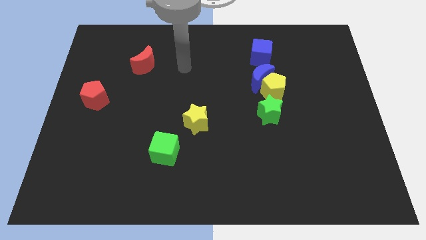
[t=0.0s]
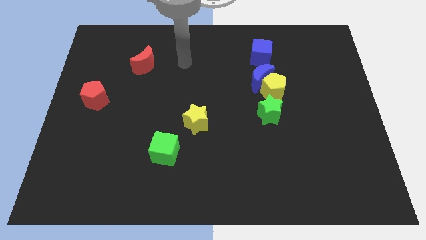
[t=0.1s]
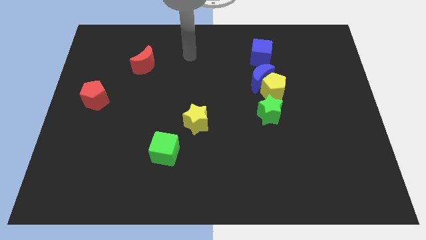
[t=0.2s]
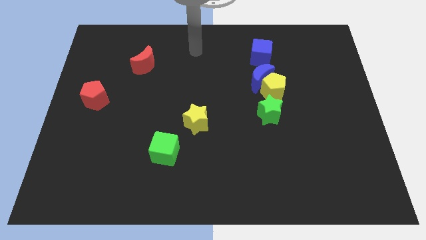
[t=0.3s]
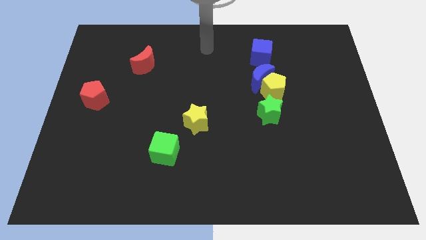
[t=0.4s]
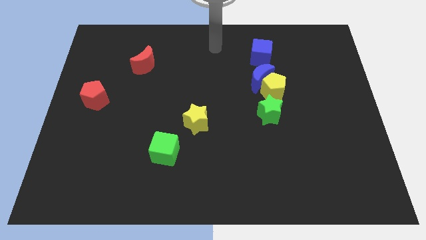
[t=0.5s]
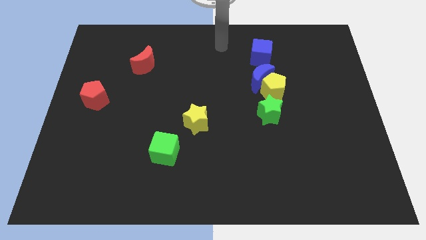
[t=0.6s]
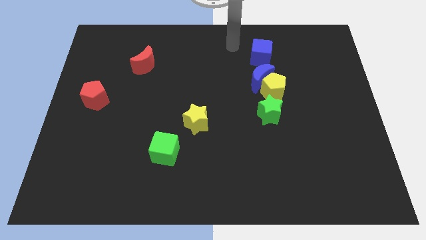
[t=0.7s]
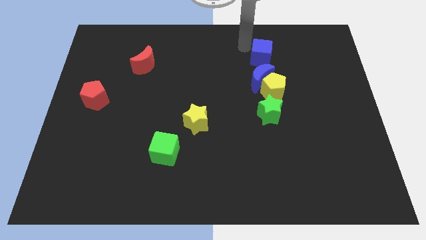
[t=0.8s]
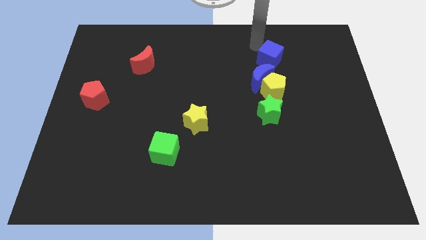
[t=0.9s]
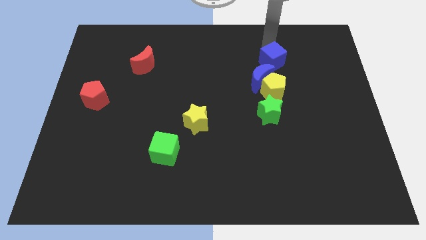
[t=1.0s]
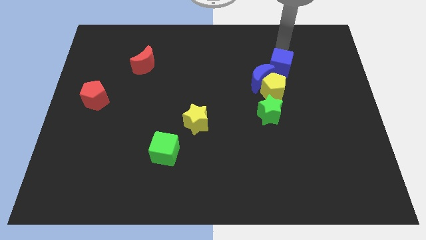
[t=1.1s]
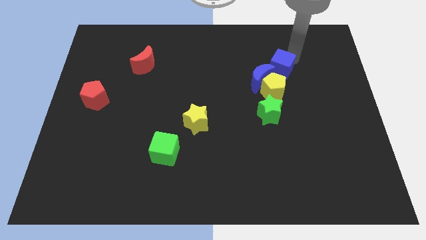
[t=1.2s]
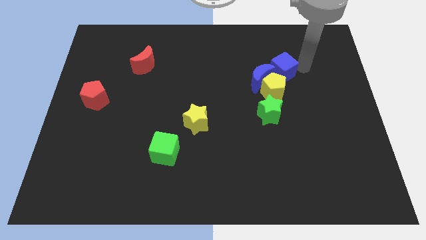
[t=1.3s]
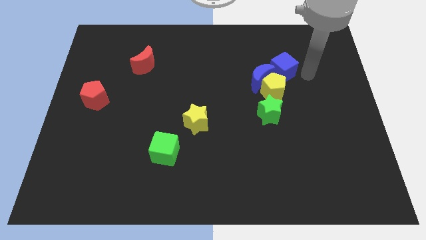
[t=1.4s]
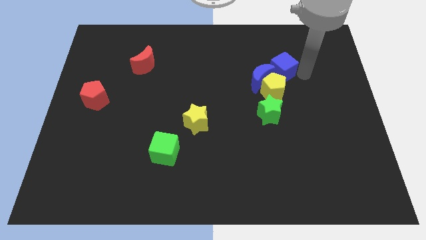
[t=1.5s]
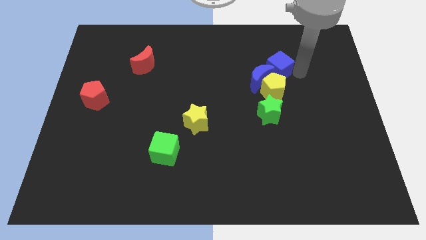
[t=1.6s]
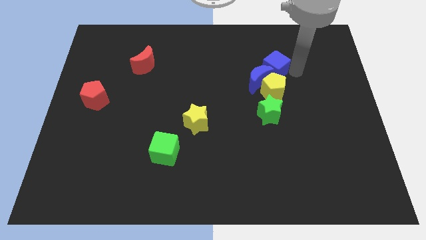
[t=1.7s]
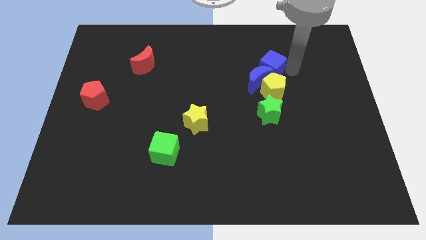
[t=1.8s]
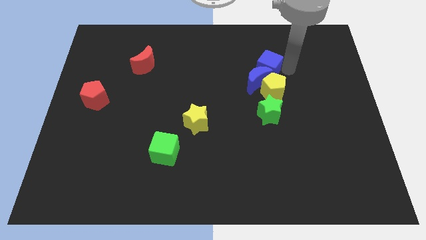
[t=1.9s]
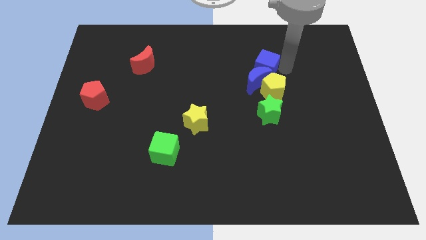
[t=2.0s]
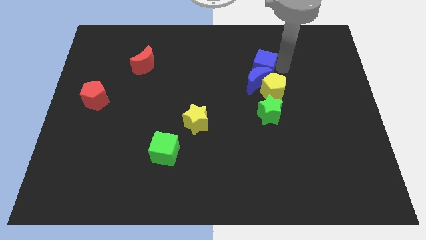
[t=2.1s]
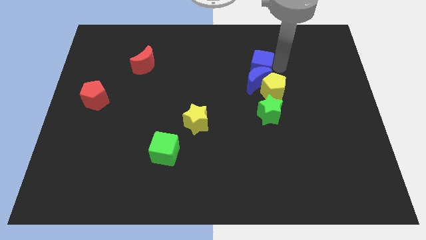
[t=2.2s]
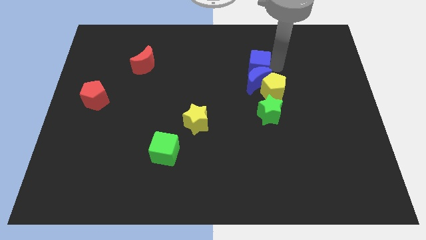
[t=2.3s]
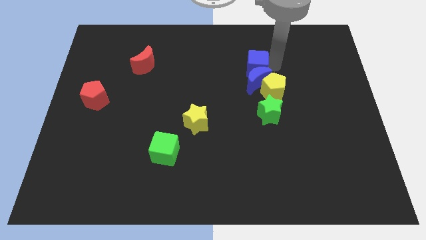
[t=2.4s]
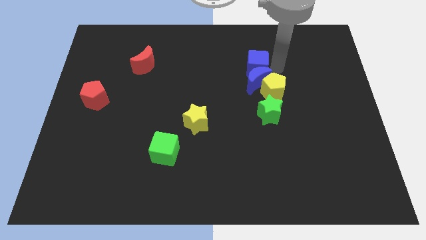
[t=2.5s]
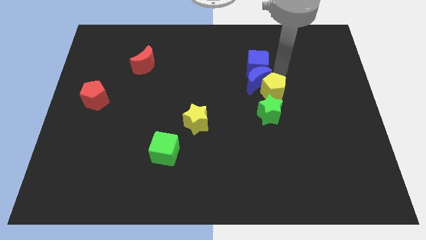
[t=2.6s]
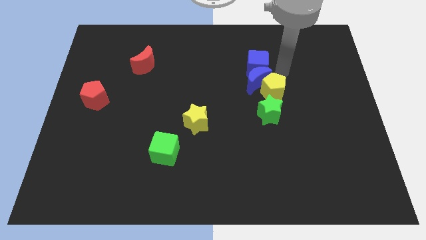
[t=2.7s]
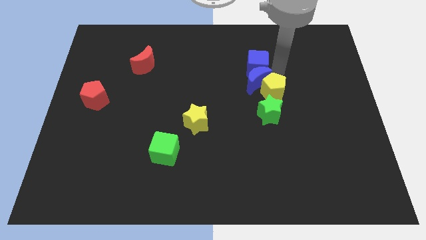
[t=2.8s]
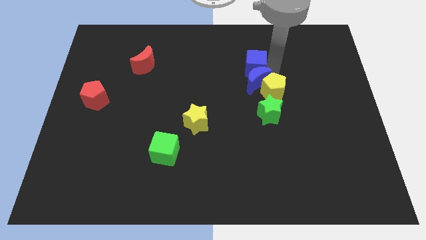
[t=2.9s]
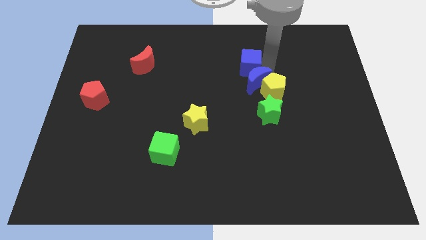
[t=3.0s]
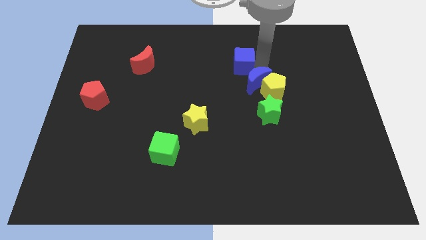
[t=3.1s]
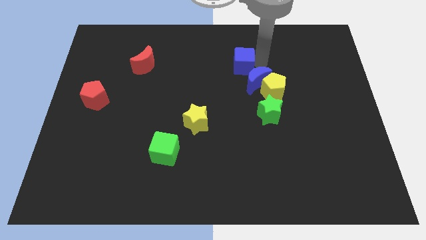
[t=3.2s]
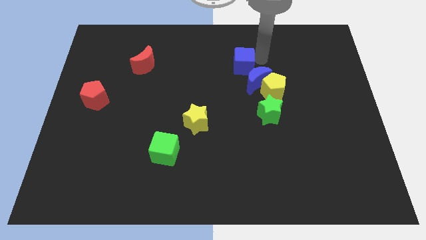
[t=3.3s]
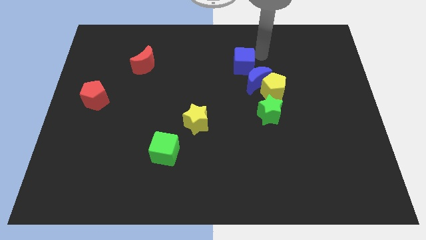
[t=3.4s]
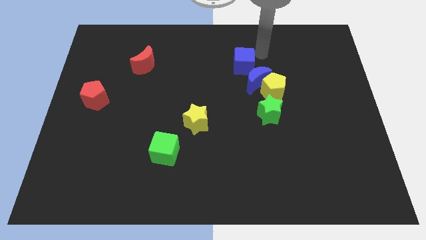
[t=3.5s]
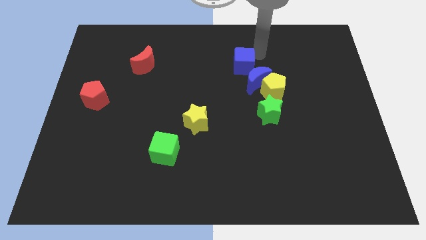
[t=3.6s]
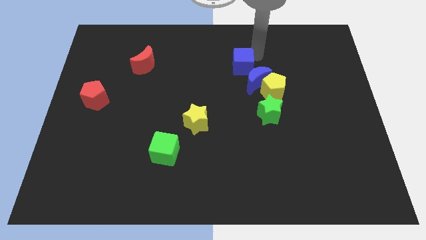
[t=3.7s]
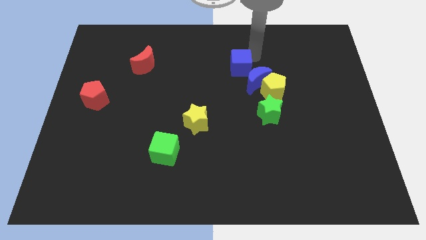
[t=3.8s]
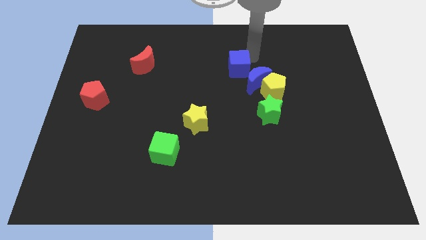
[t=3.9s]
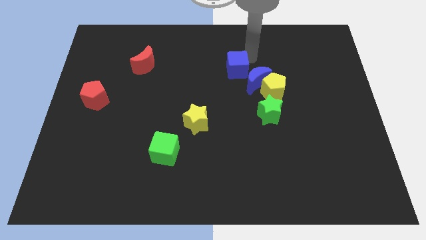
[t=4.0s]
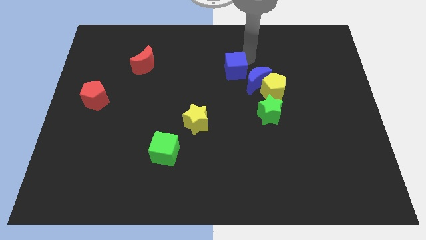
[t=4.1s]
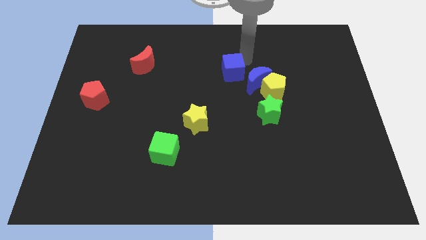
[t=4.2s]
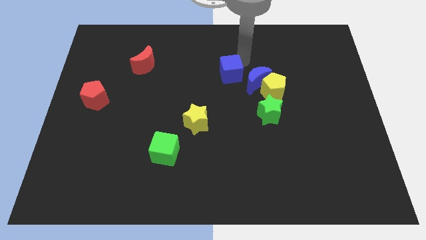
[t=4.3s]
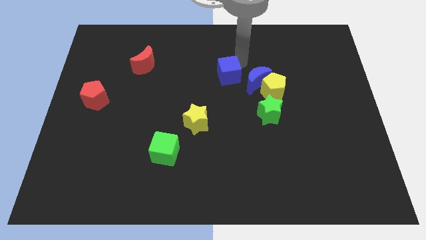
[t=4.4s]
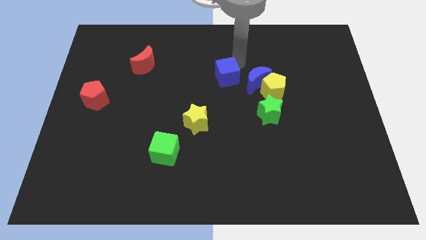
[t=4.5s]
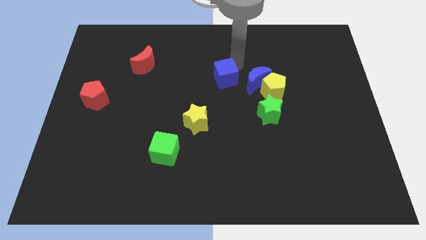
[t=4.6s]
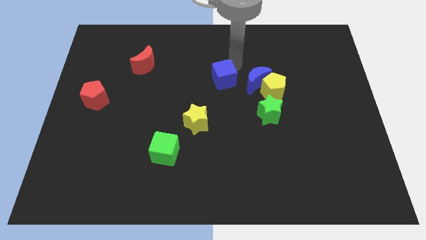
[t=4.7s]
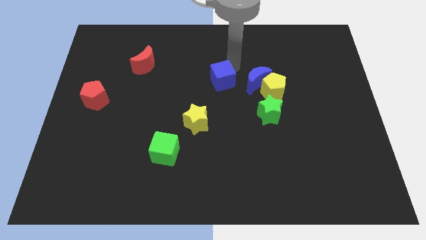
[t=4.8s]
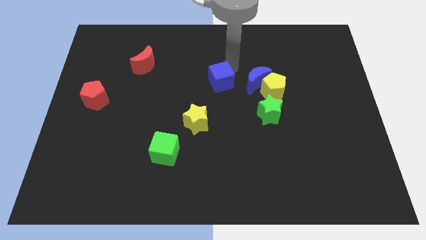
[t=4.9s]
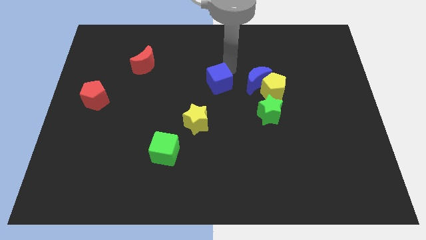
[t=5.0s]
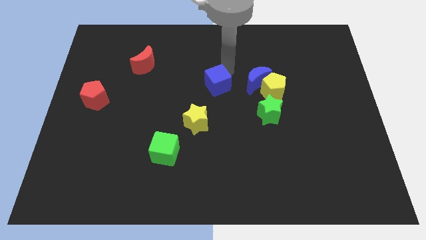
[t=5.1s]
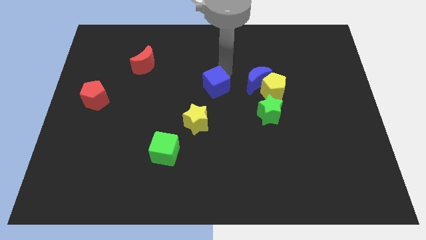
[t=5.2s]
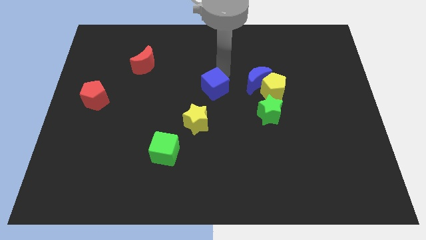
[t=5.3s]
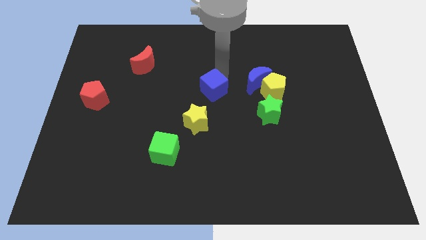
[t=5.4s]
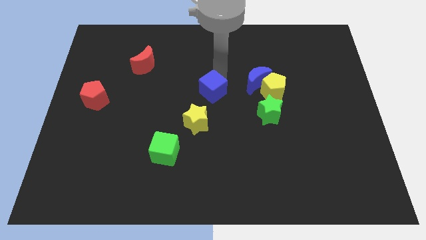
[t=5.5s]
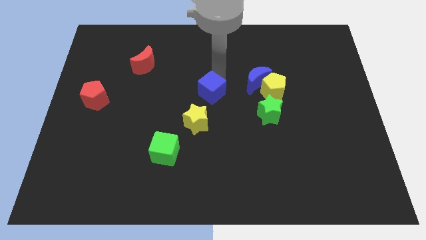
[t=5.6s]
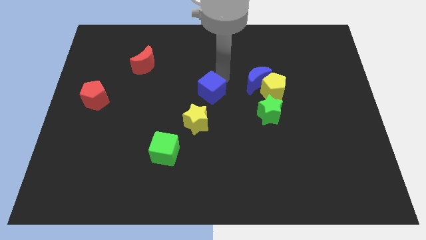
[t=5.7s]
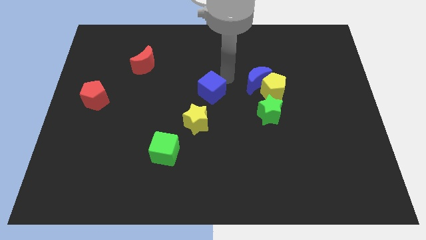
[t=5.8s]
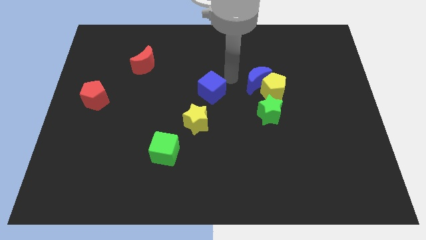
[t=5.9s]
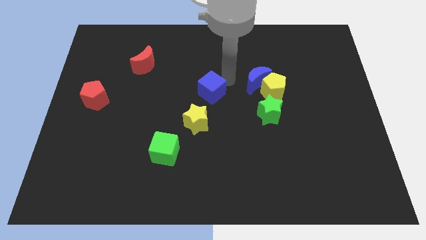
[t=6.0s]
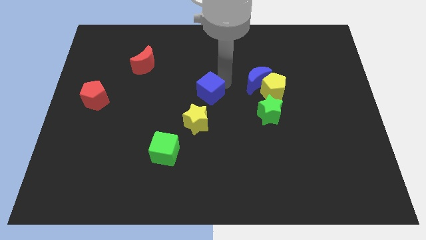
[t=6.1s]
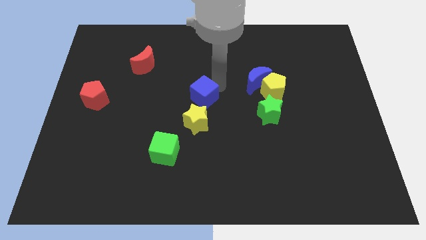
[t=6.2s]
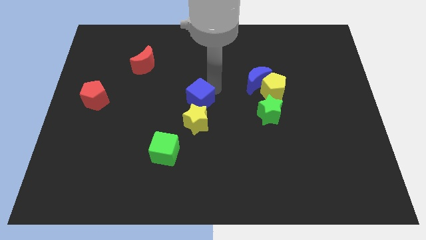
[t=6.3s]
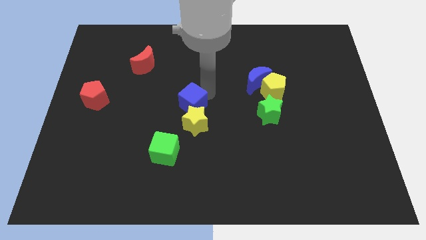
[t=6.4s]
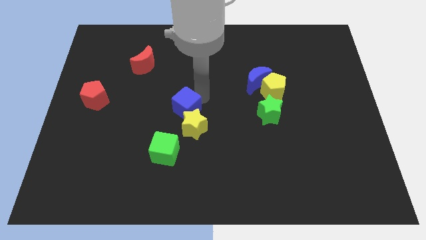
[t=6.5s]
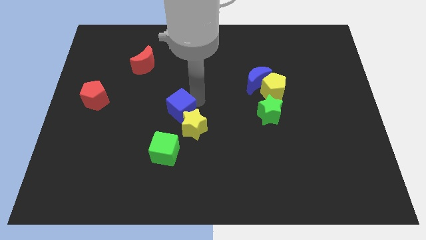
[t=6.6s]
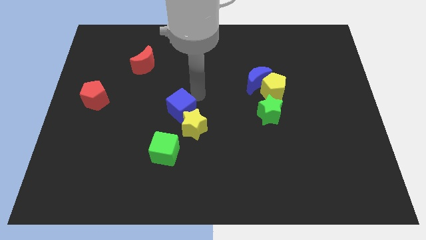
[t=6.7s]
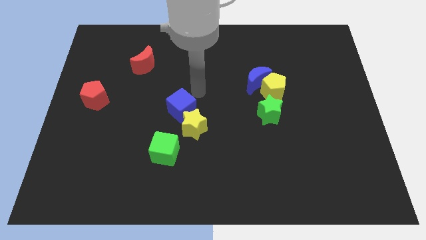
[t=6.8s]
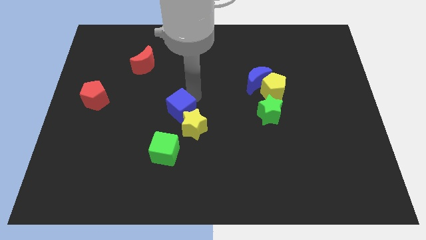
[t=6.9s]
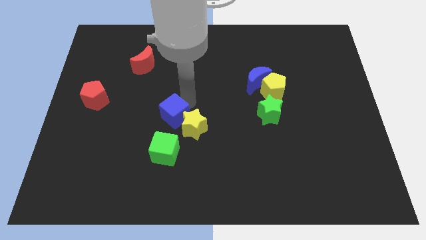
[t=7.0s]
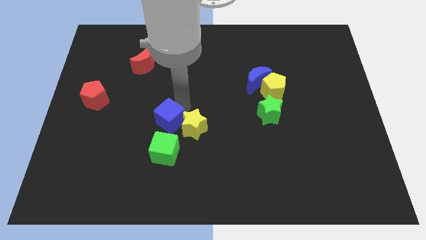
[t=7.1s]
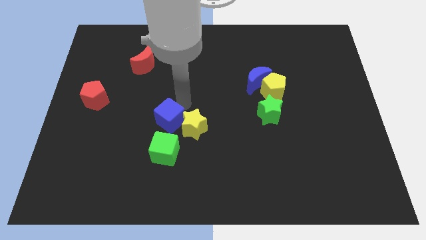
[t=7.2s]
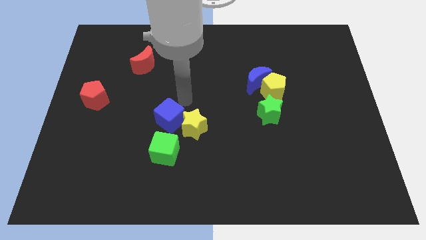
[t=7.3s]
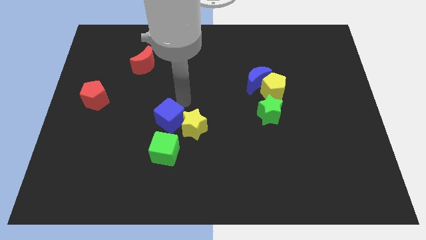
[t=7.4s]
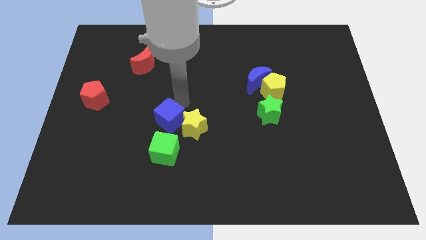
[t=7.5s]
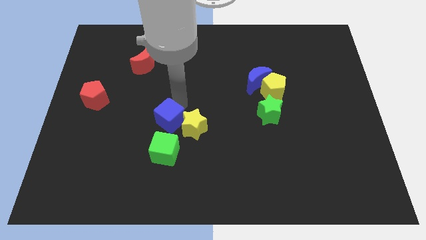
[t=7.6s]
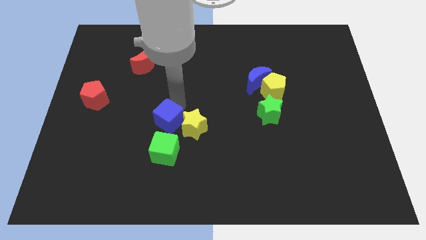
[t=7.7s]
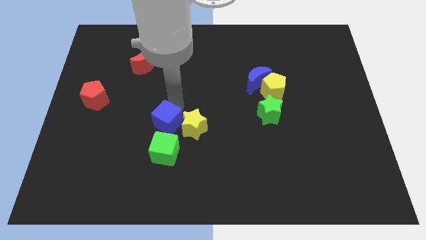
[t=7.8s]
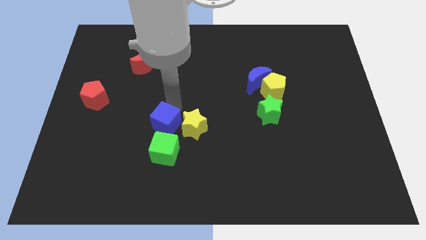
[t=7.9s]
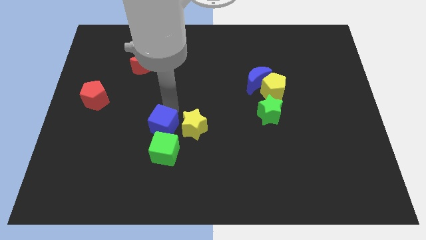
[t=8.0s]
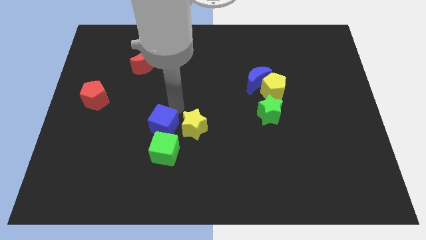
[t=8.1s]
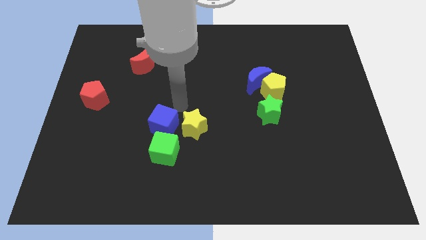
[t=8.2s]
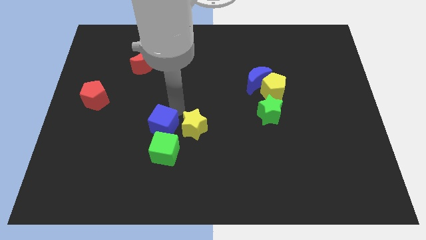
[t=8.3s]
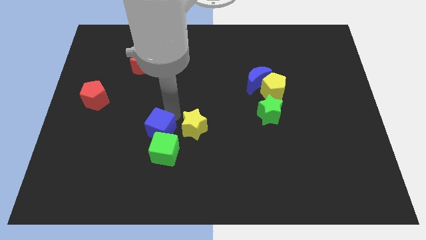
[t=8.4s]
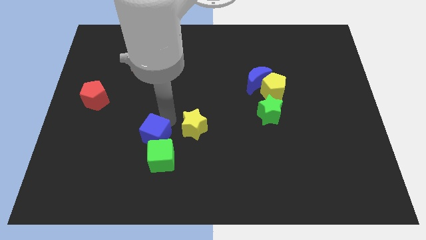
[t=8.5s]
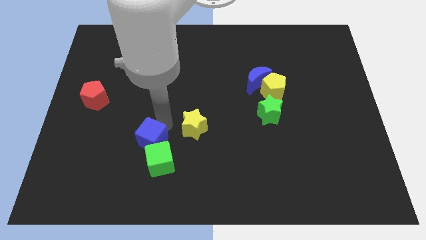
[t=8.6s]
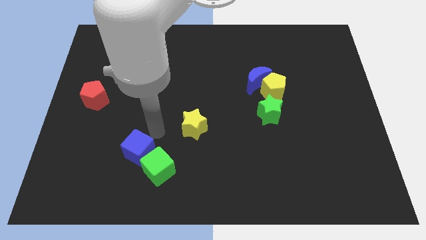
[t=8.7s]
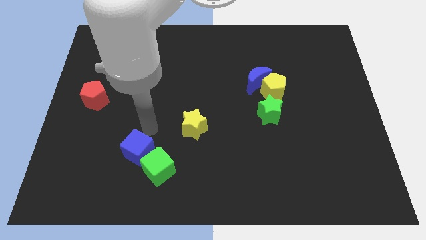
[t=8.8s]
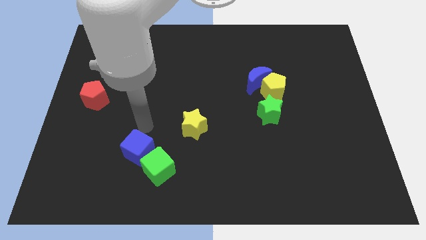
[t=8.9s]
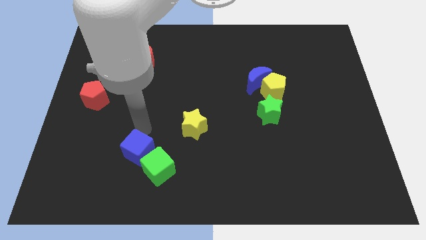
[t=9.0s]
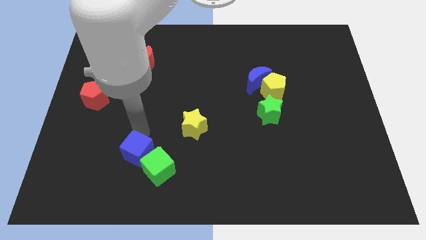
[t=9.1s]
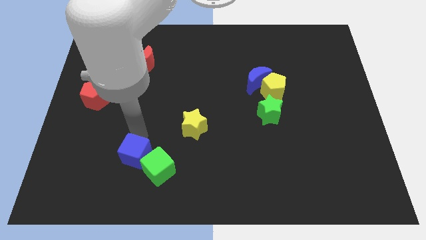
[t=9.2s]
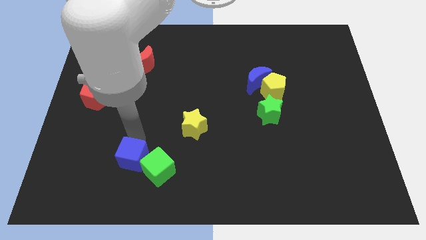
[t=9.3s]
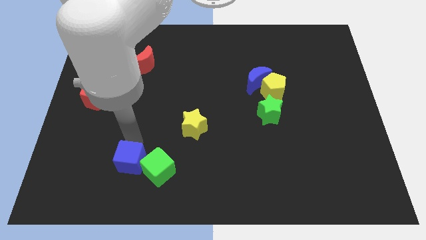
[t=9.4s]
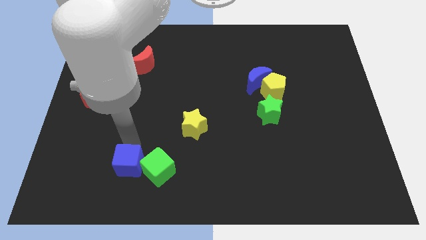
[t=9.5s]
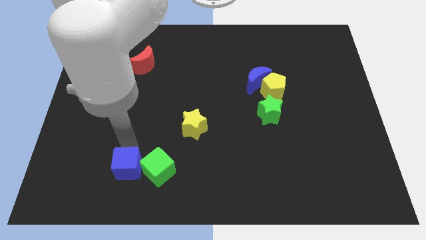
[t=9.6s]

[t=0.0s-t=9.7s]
move the blue cube to the bottom left of the green cube
